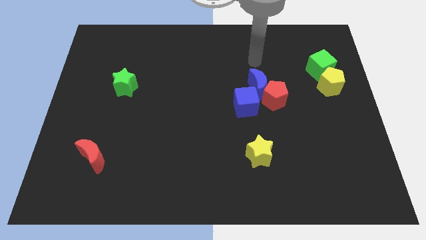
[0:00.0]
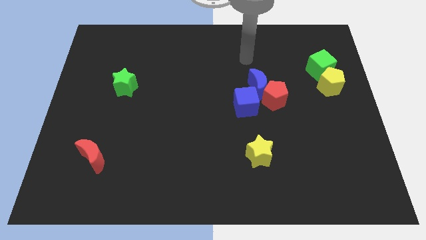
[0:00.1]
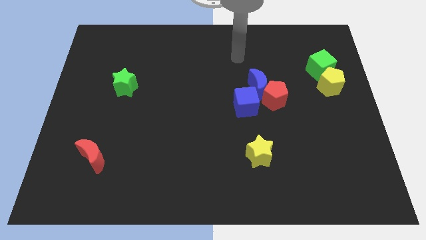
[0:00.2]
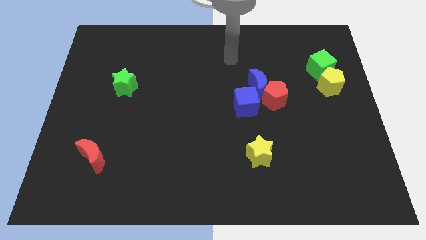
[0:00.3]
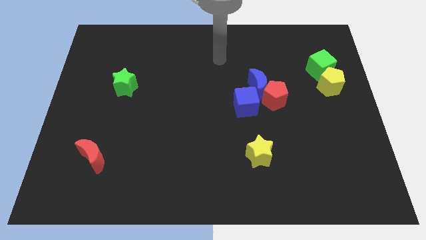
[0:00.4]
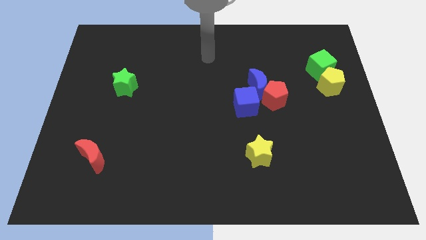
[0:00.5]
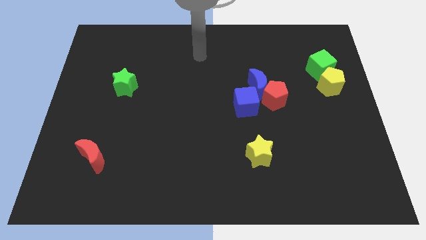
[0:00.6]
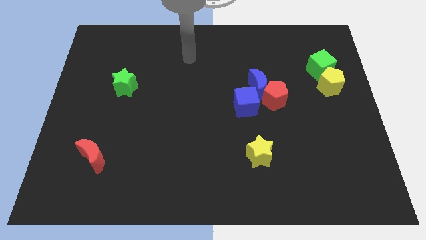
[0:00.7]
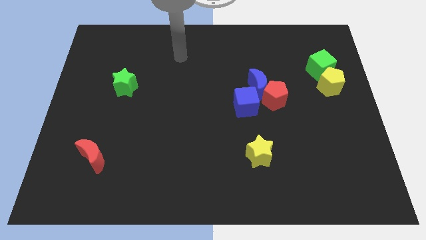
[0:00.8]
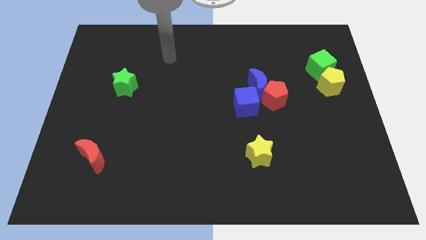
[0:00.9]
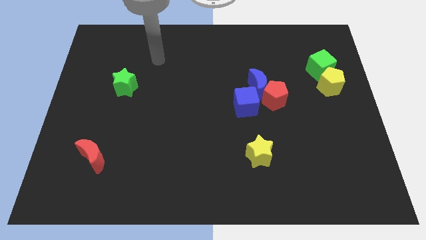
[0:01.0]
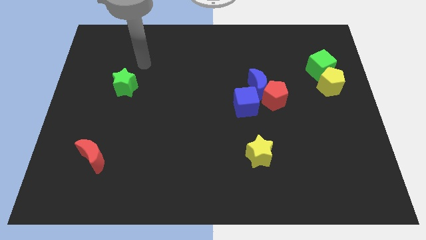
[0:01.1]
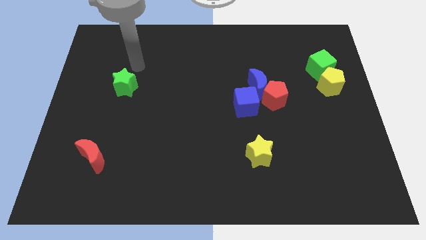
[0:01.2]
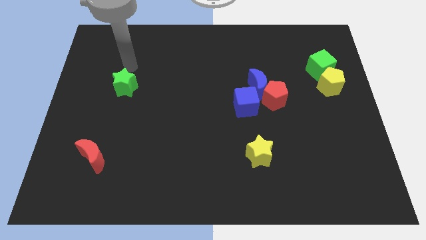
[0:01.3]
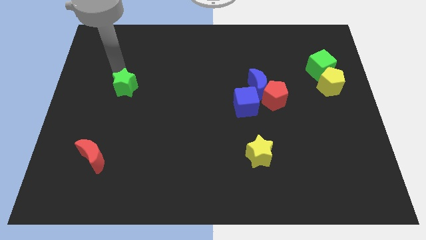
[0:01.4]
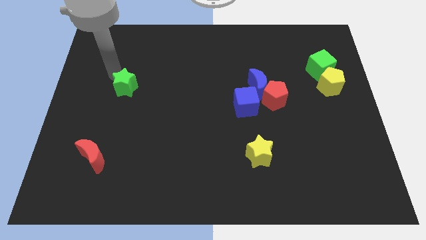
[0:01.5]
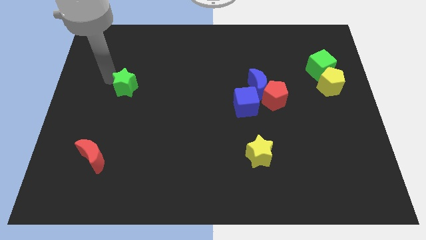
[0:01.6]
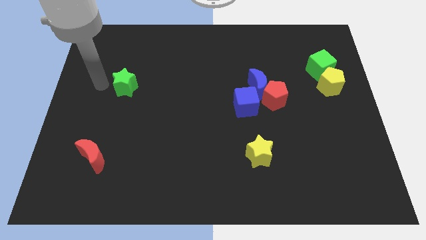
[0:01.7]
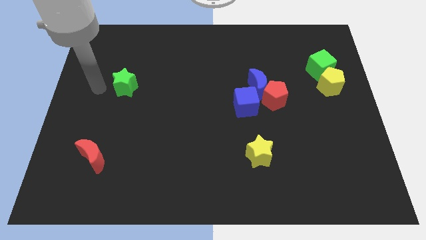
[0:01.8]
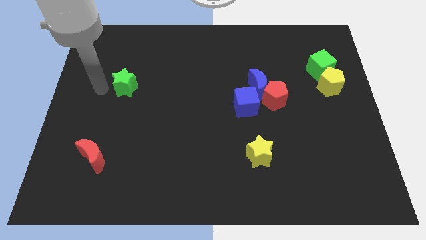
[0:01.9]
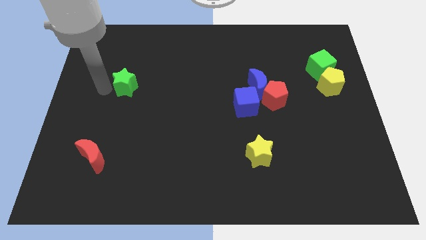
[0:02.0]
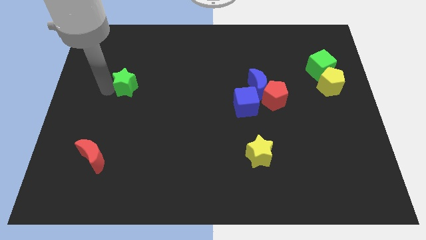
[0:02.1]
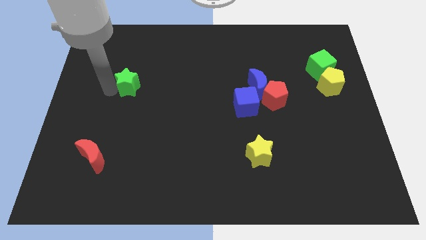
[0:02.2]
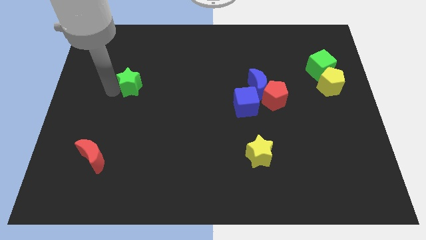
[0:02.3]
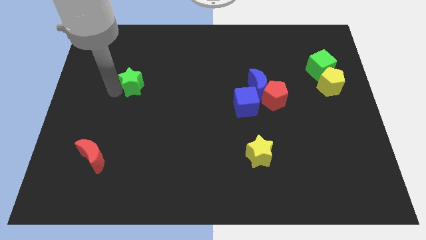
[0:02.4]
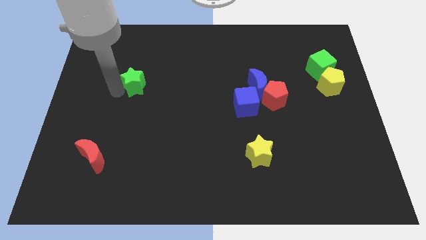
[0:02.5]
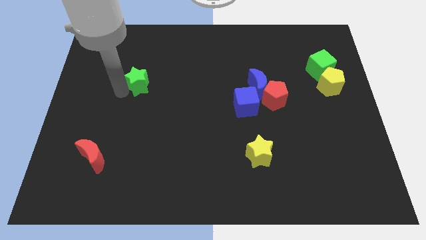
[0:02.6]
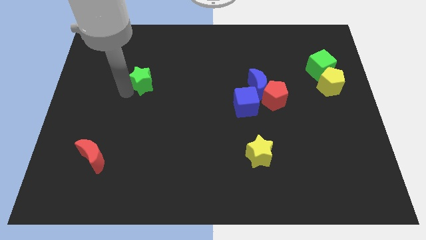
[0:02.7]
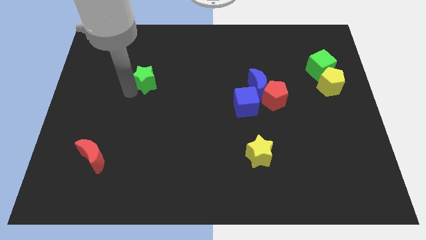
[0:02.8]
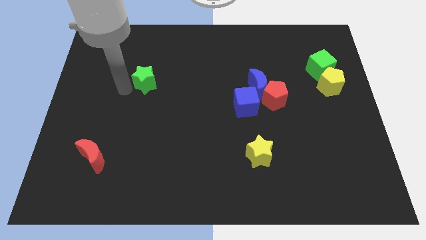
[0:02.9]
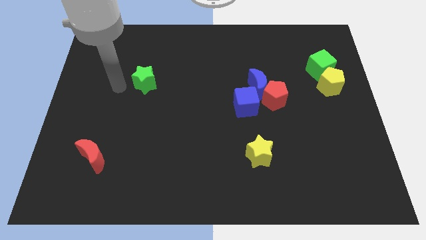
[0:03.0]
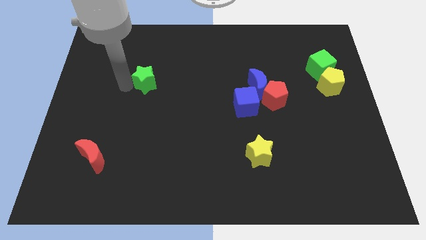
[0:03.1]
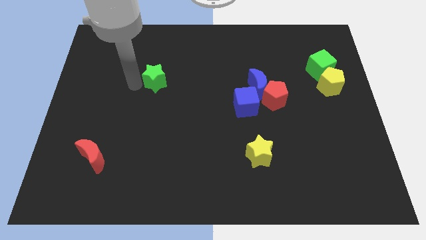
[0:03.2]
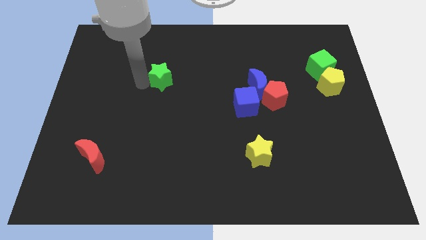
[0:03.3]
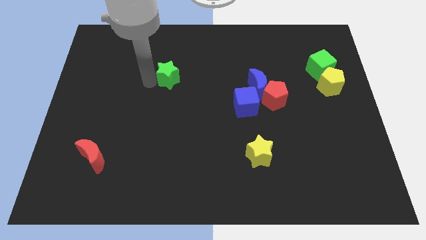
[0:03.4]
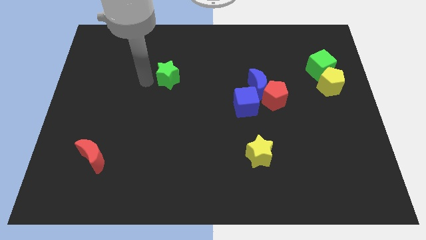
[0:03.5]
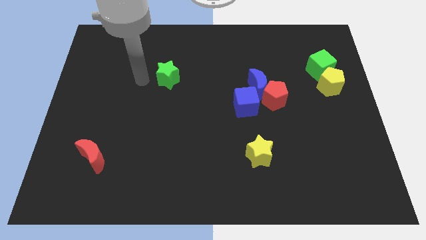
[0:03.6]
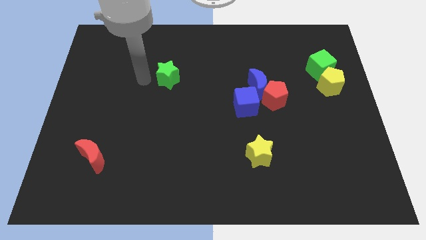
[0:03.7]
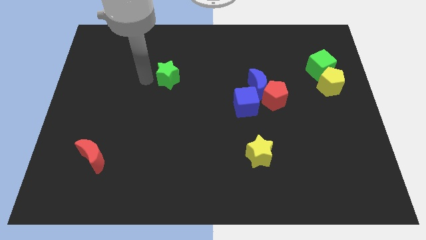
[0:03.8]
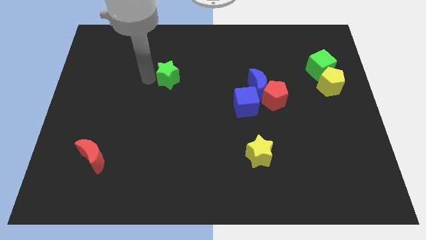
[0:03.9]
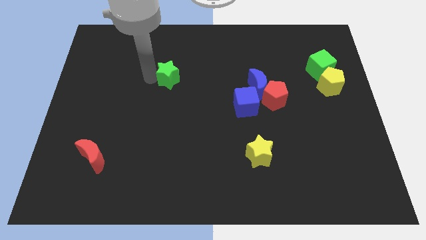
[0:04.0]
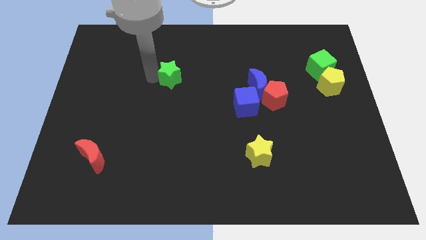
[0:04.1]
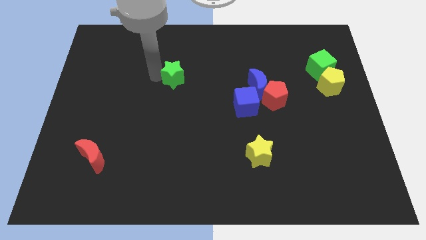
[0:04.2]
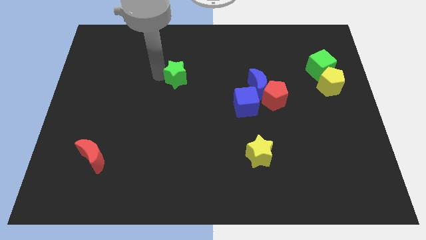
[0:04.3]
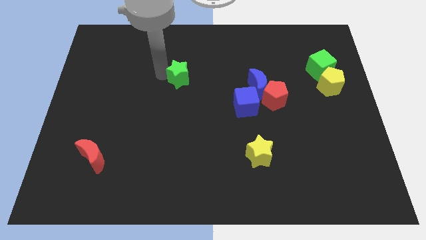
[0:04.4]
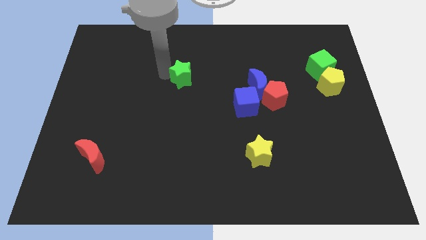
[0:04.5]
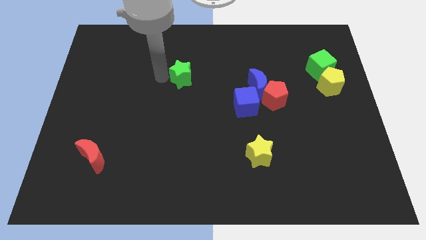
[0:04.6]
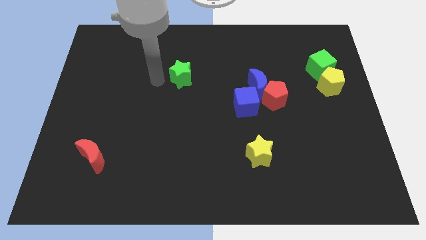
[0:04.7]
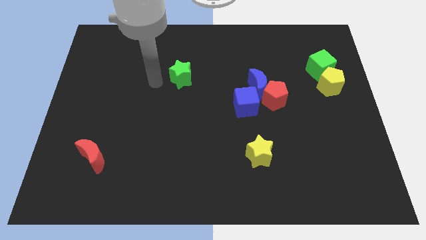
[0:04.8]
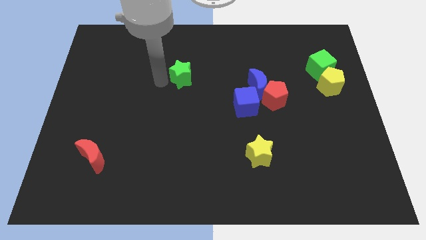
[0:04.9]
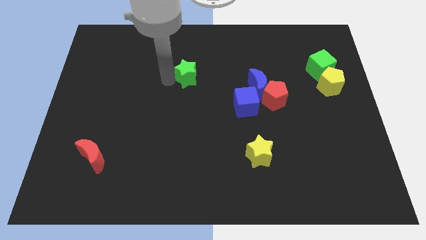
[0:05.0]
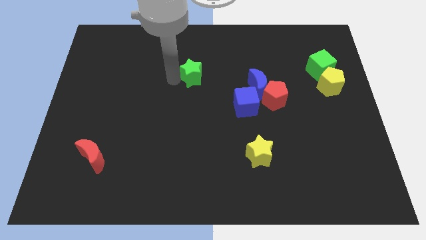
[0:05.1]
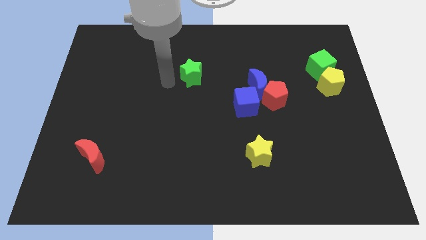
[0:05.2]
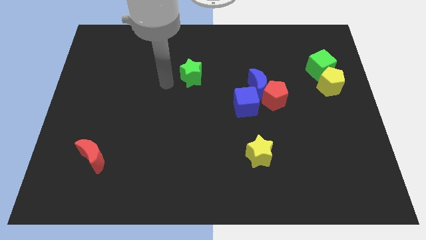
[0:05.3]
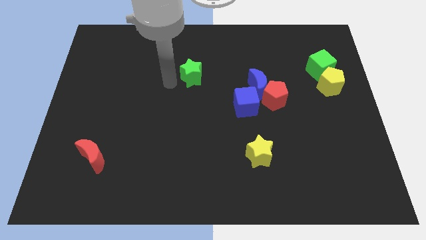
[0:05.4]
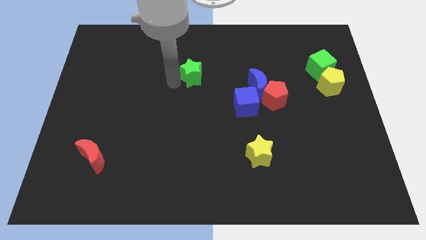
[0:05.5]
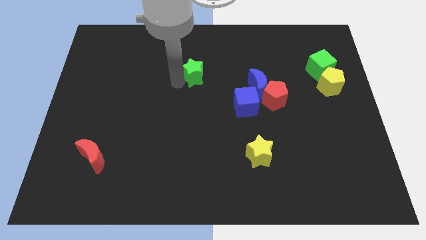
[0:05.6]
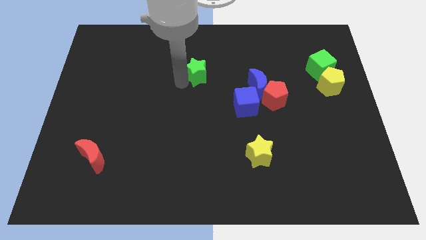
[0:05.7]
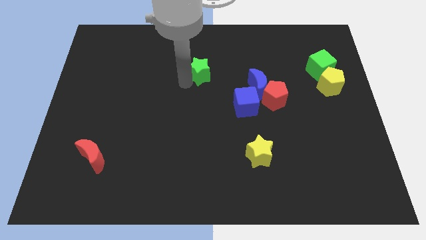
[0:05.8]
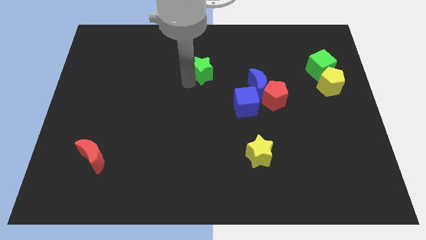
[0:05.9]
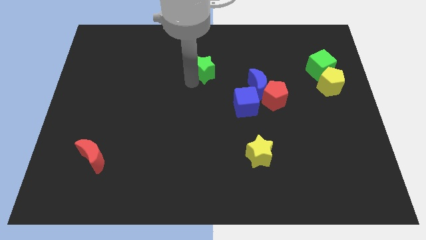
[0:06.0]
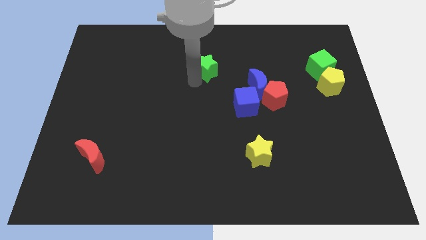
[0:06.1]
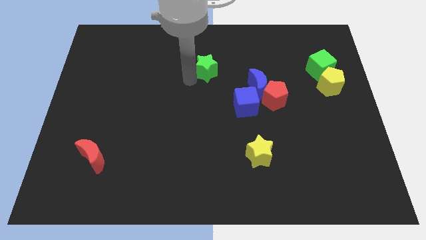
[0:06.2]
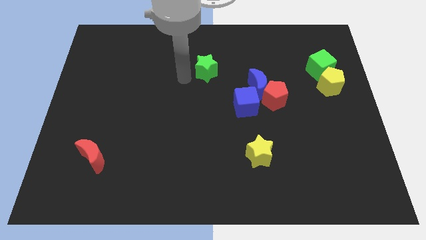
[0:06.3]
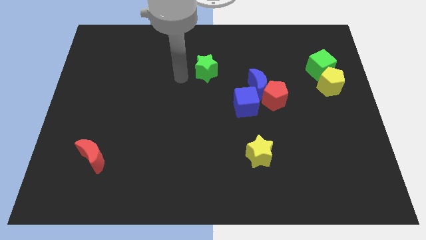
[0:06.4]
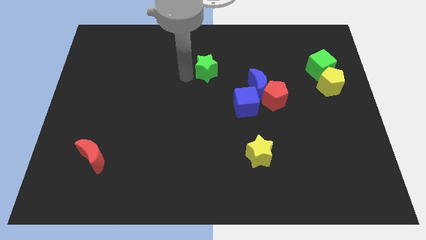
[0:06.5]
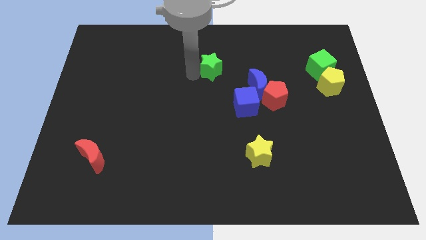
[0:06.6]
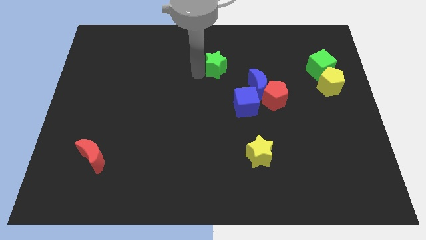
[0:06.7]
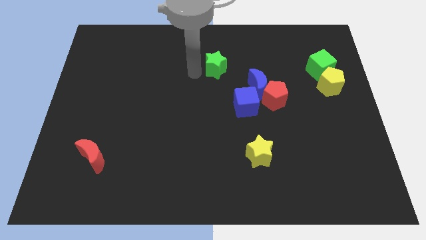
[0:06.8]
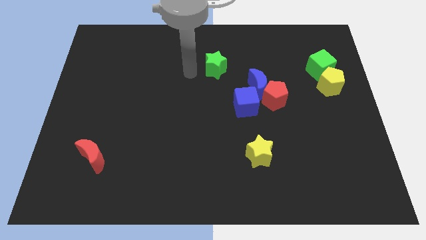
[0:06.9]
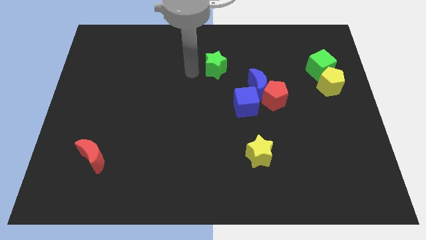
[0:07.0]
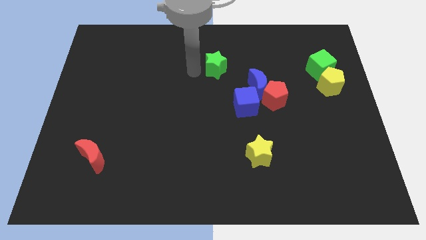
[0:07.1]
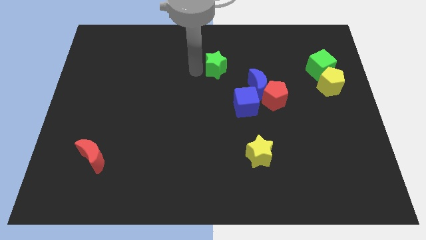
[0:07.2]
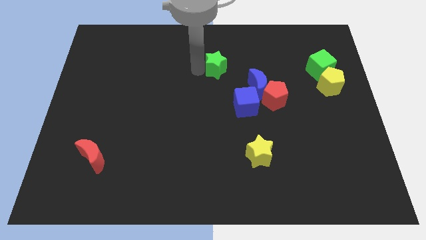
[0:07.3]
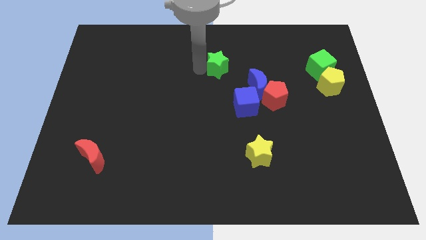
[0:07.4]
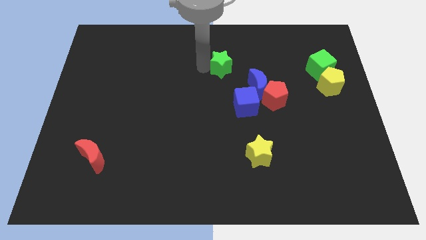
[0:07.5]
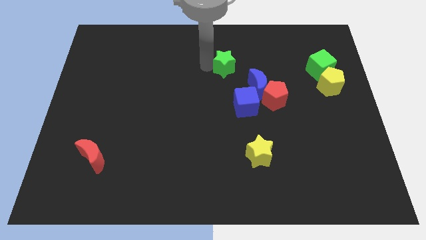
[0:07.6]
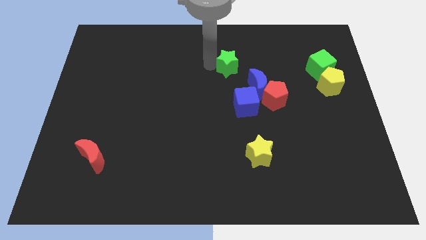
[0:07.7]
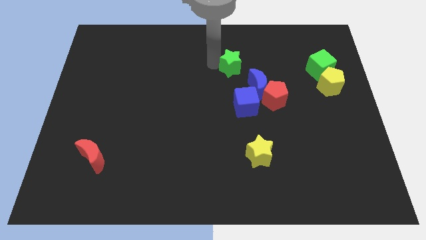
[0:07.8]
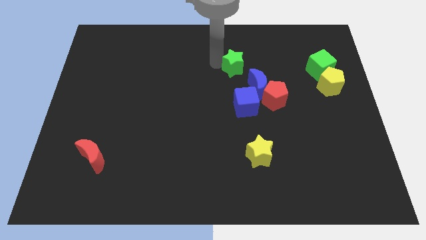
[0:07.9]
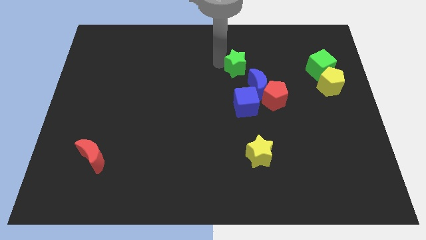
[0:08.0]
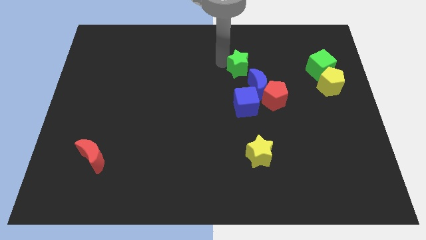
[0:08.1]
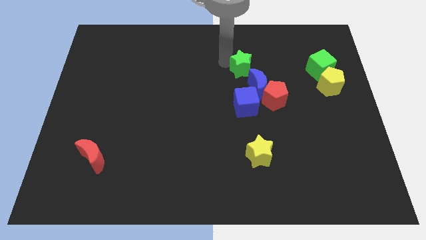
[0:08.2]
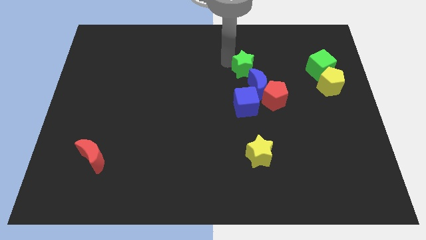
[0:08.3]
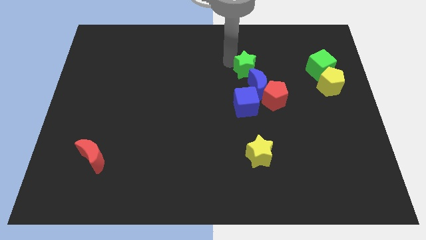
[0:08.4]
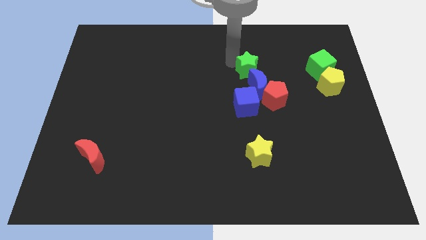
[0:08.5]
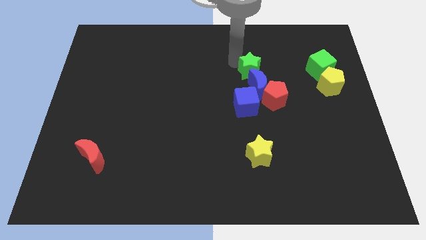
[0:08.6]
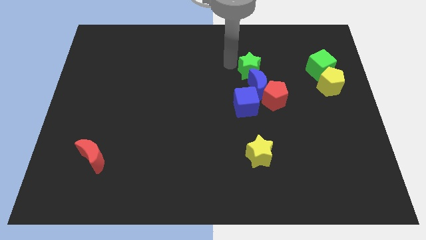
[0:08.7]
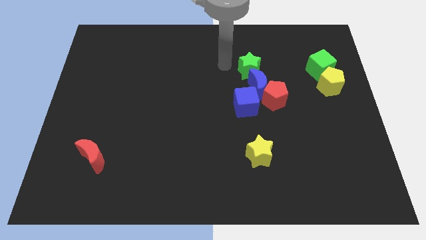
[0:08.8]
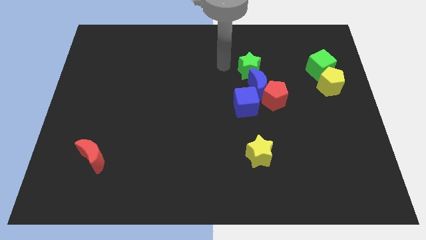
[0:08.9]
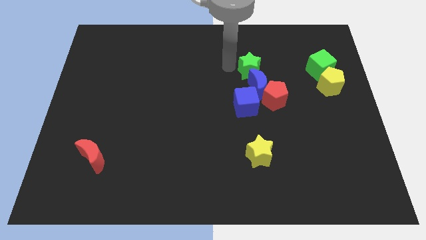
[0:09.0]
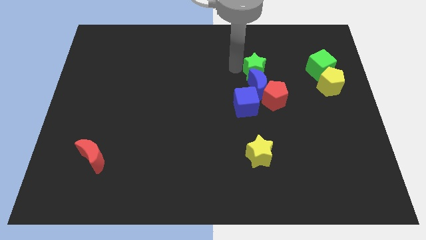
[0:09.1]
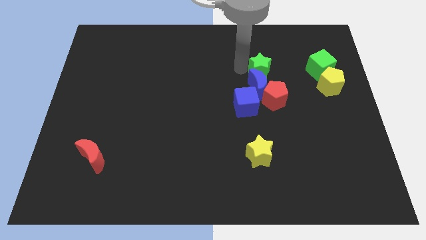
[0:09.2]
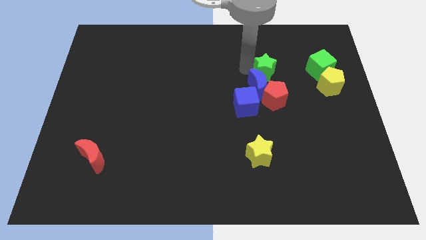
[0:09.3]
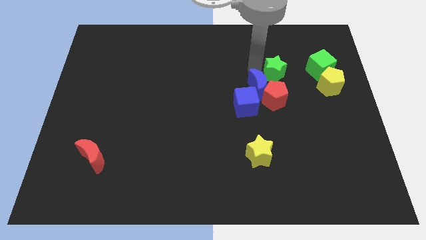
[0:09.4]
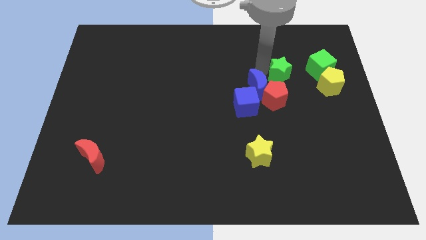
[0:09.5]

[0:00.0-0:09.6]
push the green star to the top right of the red pentagon
